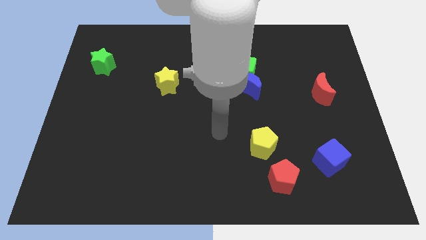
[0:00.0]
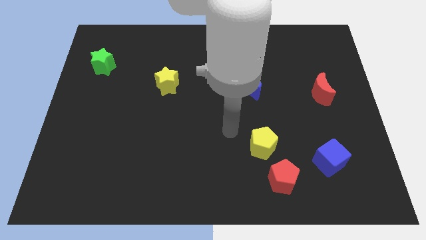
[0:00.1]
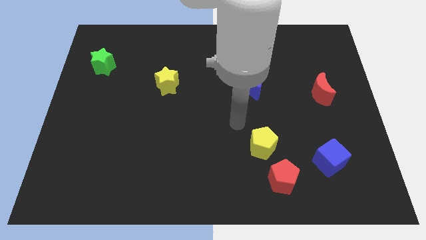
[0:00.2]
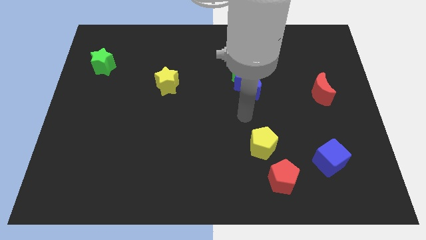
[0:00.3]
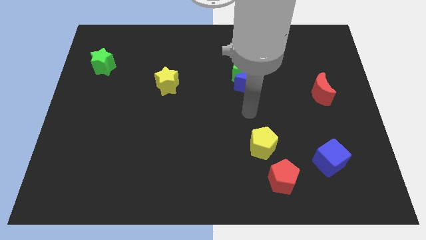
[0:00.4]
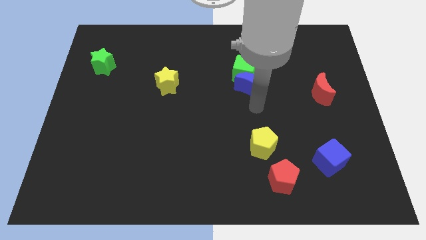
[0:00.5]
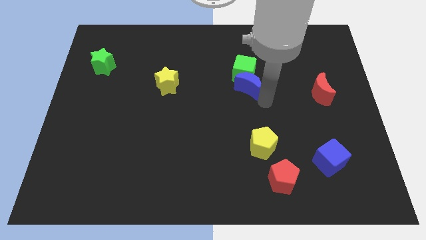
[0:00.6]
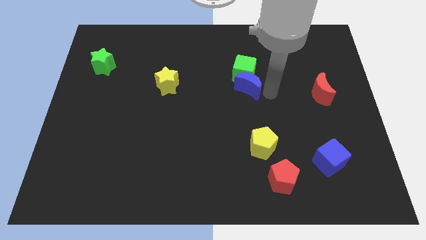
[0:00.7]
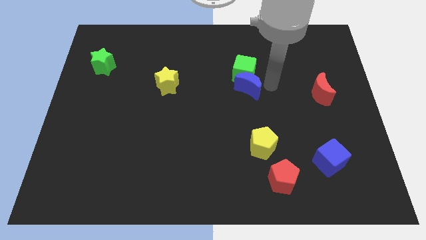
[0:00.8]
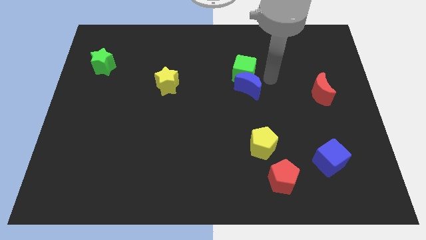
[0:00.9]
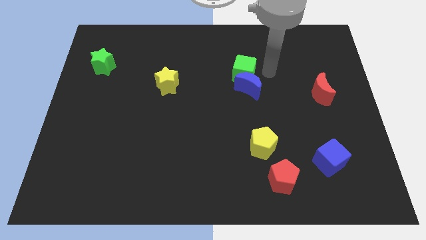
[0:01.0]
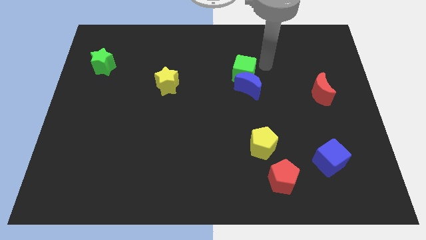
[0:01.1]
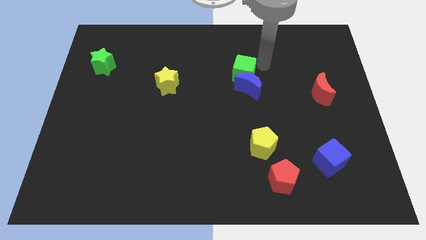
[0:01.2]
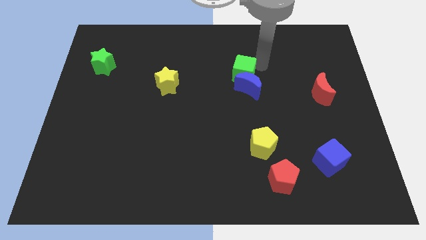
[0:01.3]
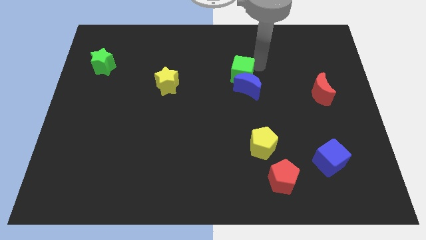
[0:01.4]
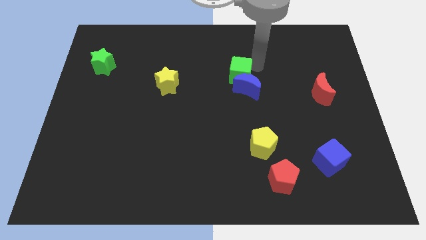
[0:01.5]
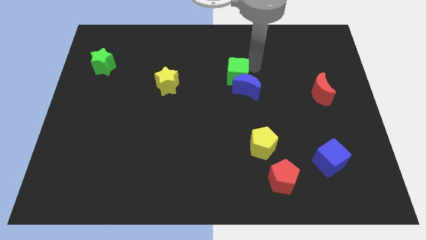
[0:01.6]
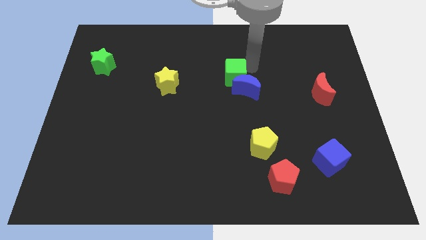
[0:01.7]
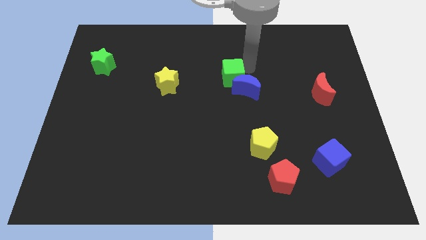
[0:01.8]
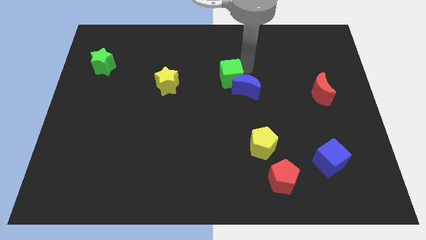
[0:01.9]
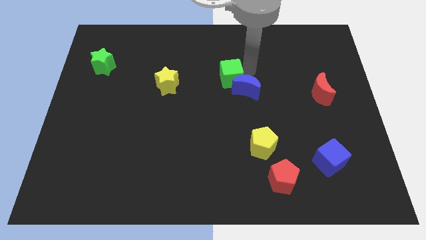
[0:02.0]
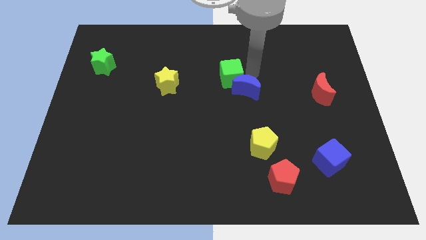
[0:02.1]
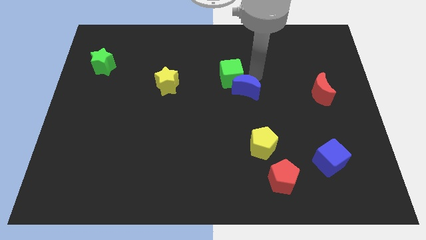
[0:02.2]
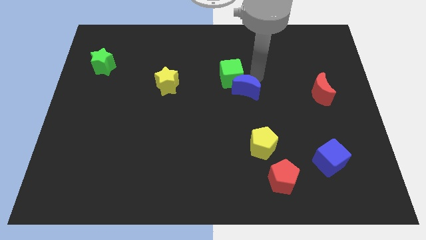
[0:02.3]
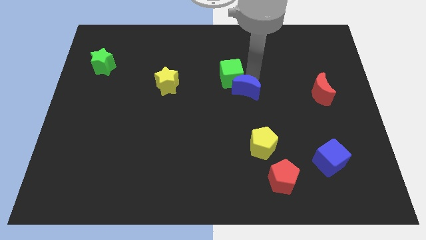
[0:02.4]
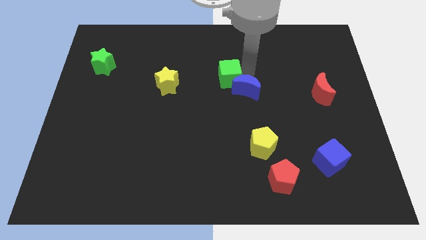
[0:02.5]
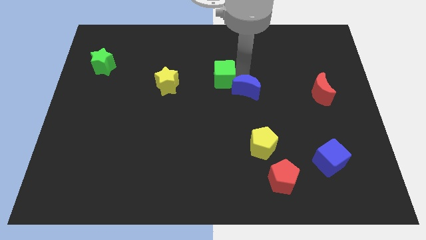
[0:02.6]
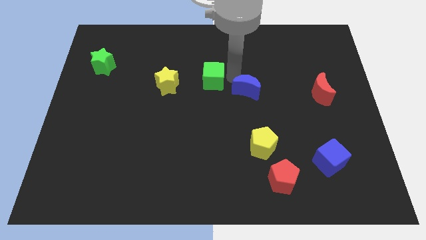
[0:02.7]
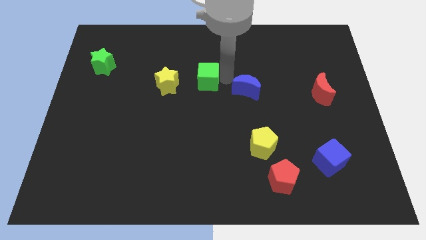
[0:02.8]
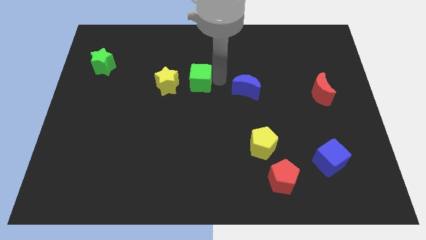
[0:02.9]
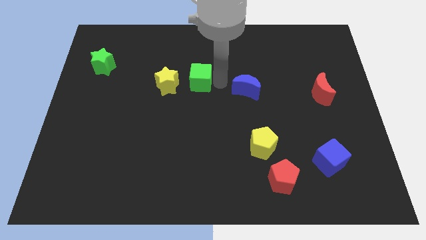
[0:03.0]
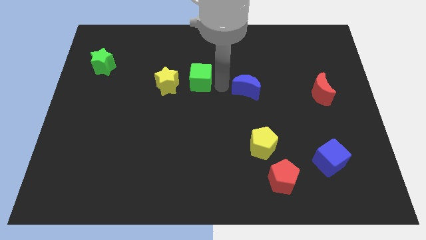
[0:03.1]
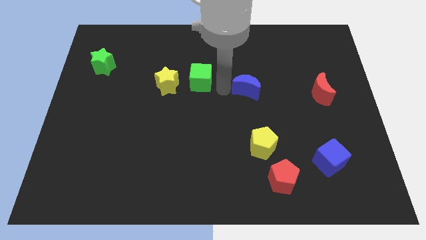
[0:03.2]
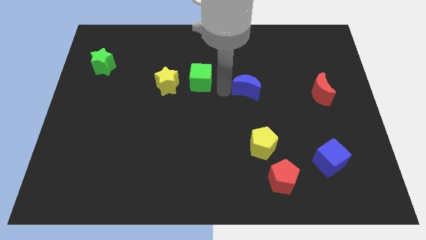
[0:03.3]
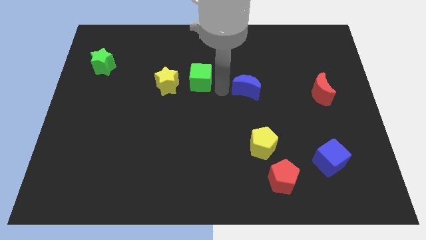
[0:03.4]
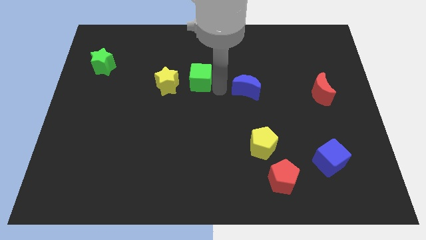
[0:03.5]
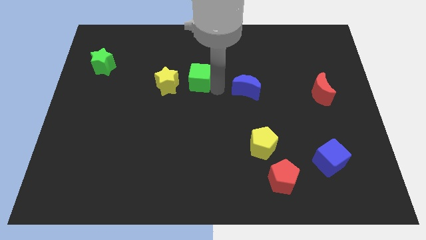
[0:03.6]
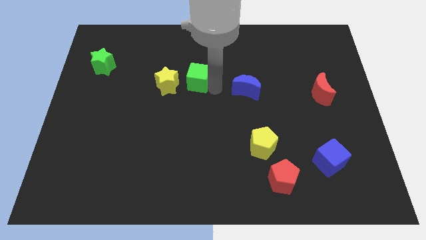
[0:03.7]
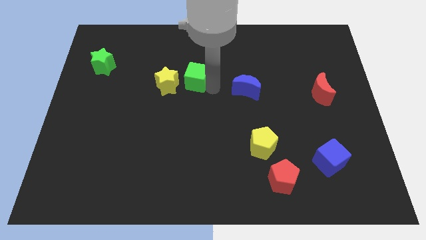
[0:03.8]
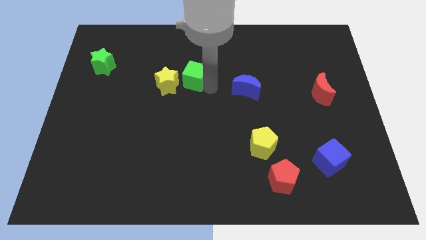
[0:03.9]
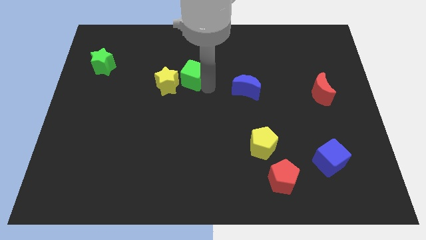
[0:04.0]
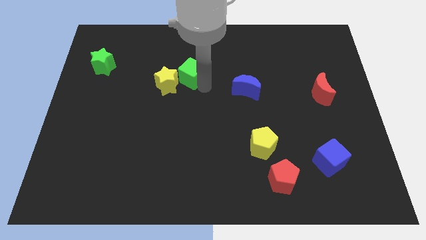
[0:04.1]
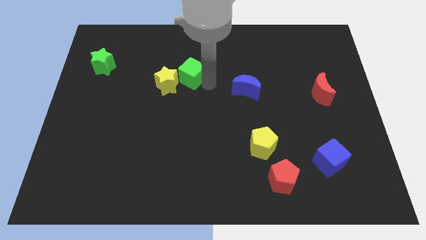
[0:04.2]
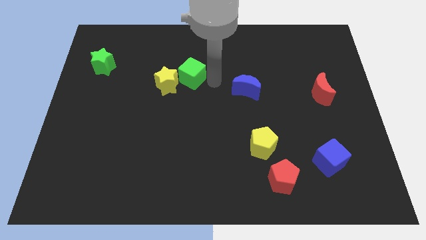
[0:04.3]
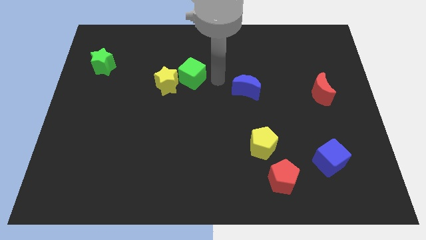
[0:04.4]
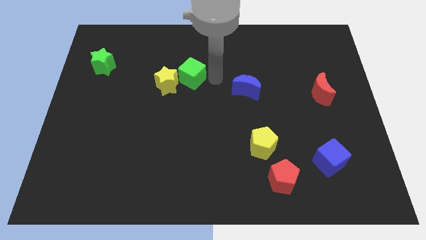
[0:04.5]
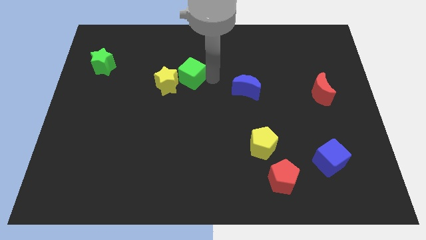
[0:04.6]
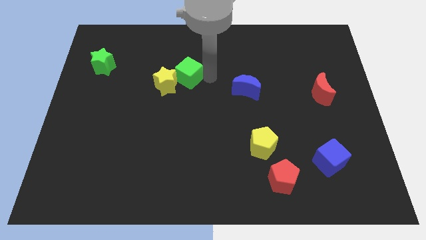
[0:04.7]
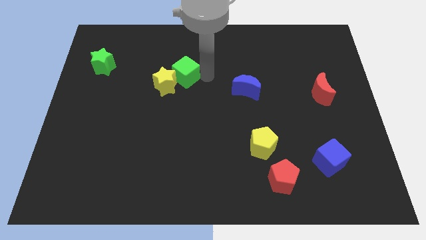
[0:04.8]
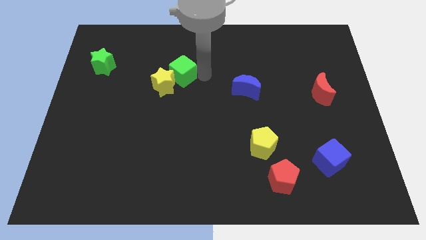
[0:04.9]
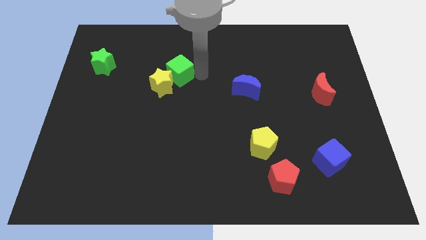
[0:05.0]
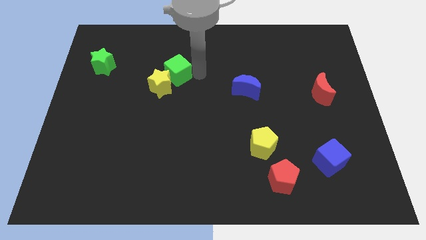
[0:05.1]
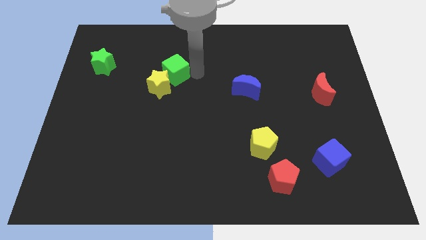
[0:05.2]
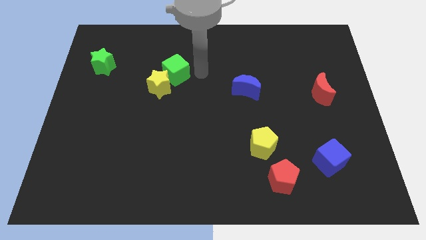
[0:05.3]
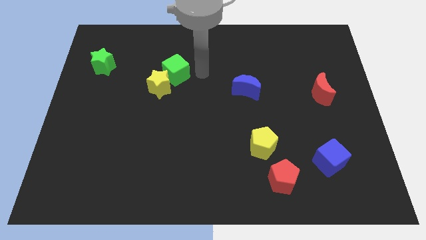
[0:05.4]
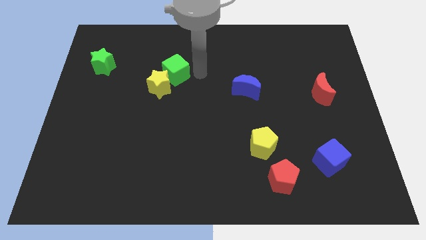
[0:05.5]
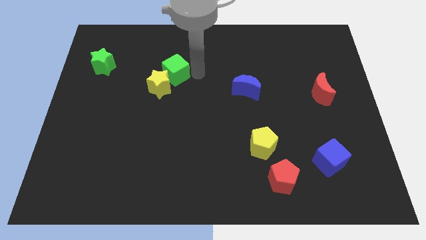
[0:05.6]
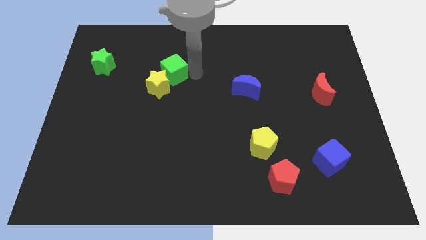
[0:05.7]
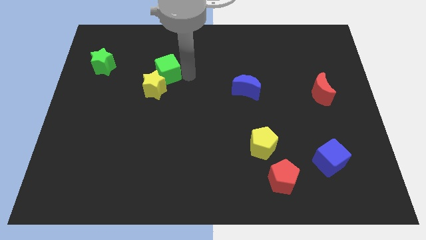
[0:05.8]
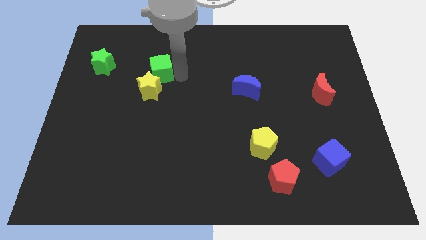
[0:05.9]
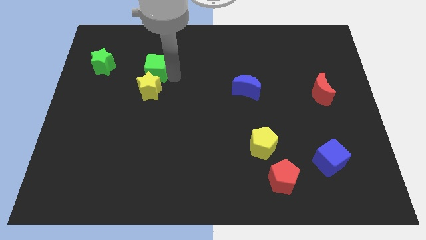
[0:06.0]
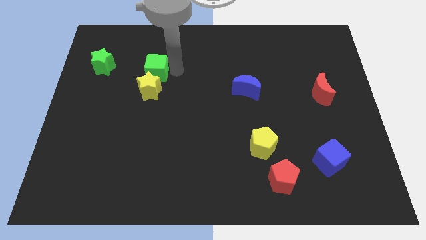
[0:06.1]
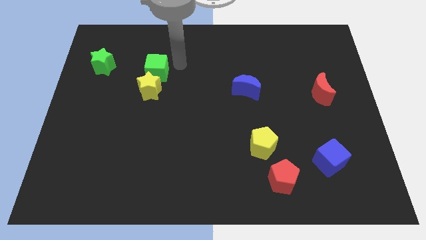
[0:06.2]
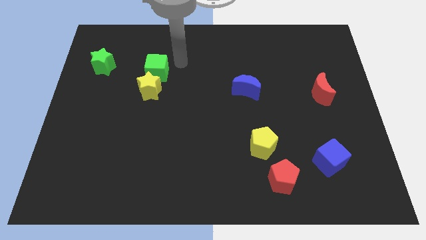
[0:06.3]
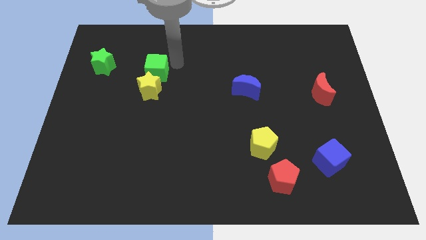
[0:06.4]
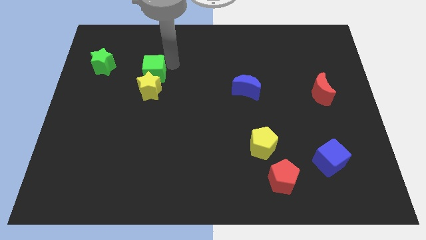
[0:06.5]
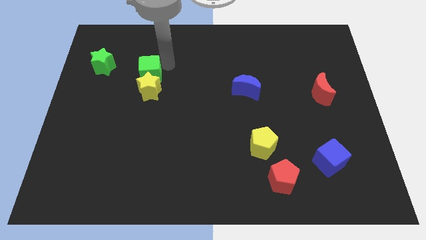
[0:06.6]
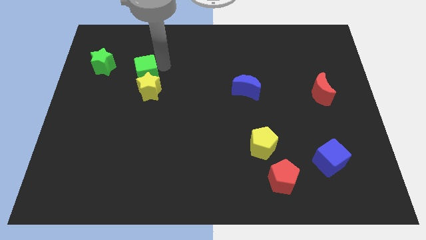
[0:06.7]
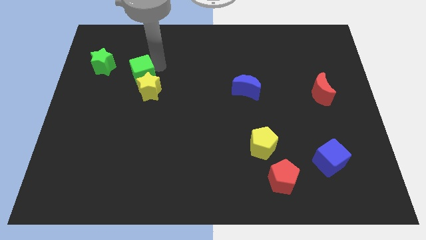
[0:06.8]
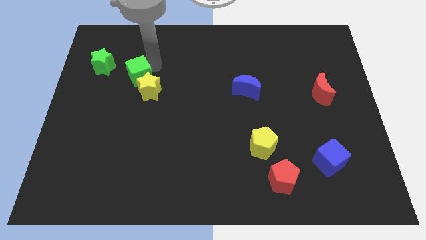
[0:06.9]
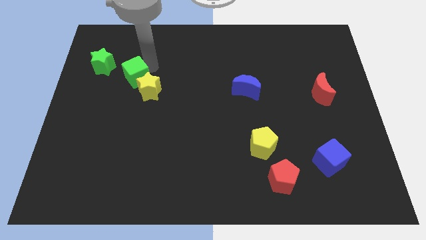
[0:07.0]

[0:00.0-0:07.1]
push the green cube to the left side of the yellow star

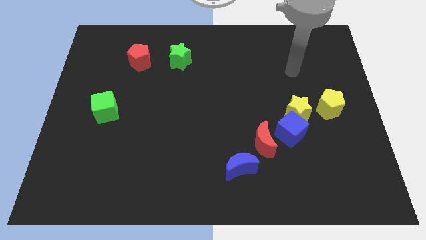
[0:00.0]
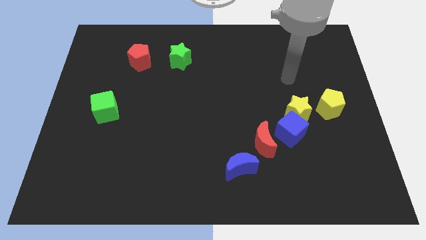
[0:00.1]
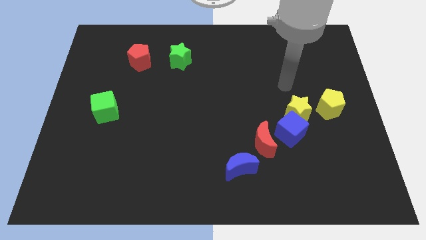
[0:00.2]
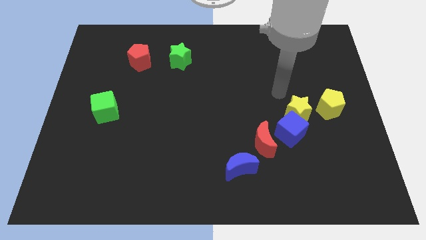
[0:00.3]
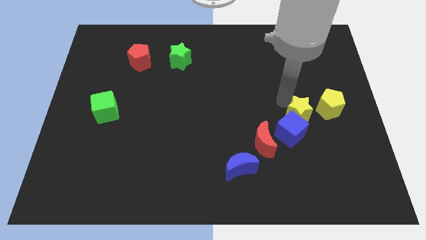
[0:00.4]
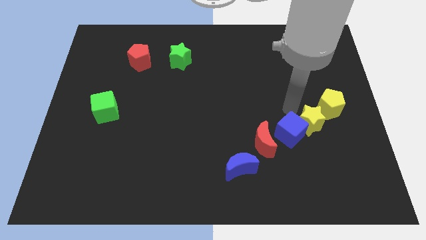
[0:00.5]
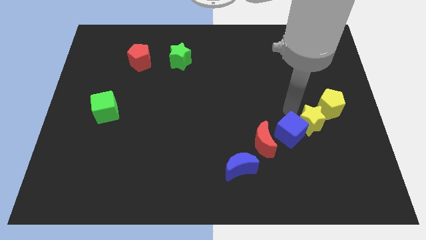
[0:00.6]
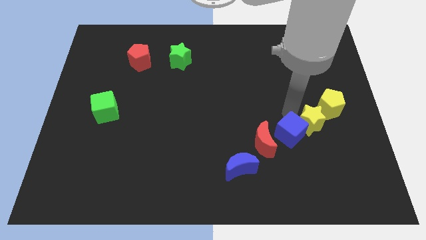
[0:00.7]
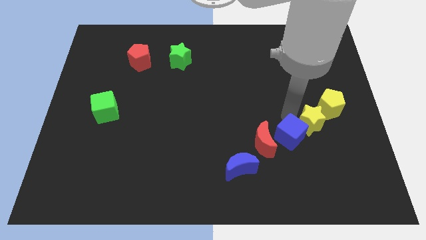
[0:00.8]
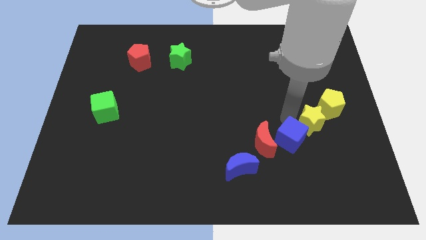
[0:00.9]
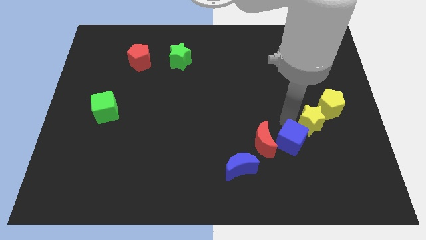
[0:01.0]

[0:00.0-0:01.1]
move the blue cube to the bottom right of the red moon
